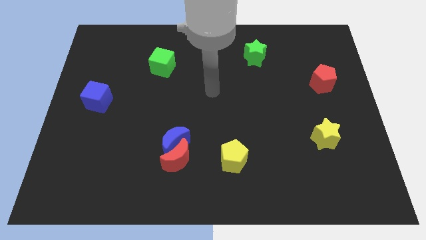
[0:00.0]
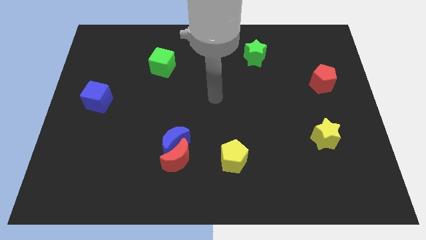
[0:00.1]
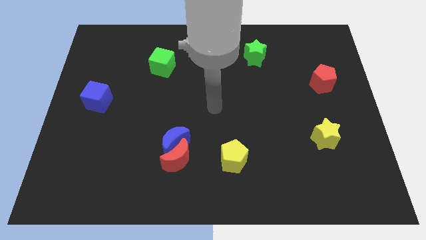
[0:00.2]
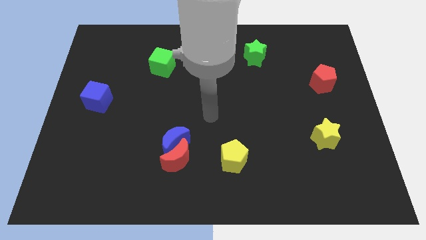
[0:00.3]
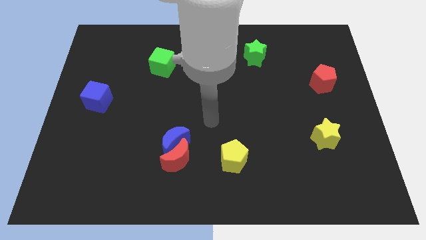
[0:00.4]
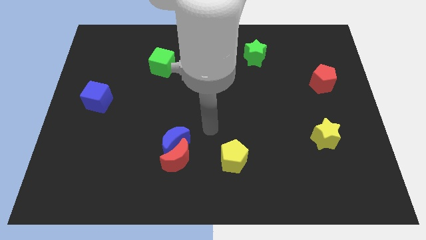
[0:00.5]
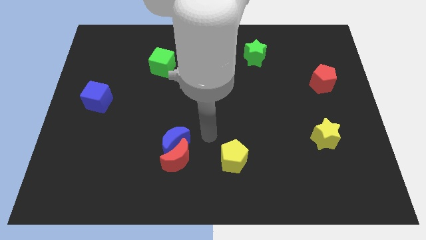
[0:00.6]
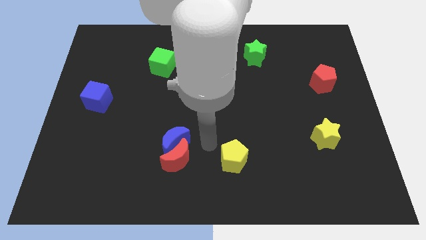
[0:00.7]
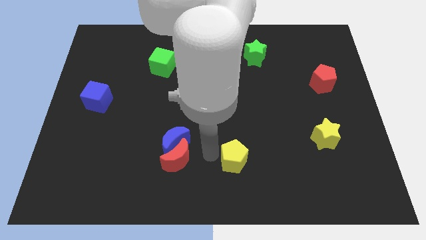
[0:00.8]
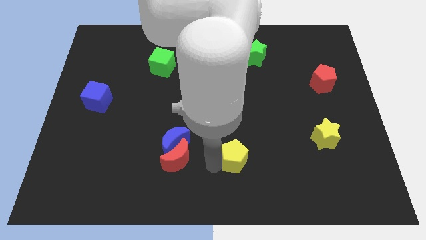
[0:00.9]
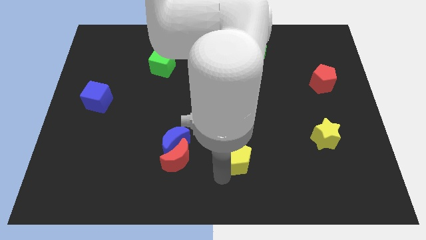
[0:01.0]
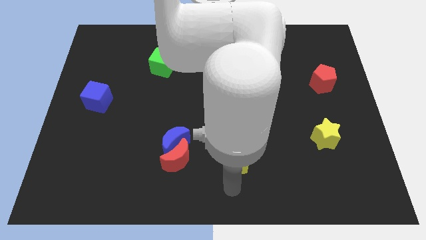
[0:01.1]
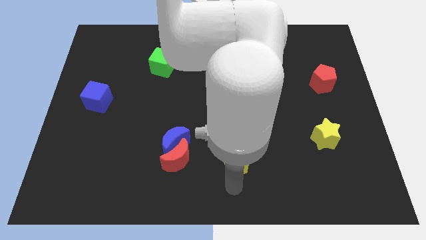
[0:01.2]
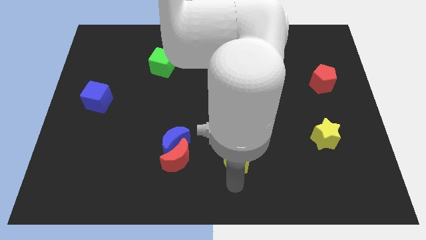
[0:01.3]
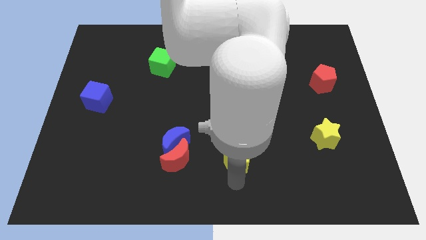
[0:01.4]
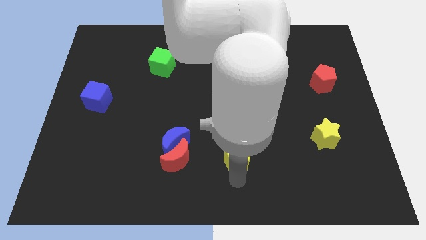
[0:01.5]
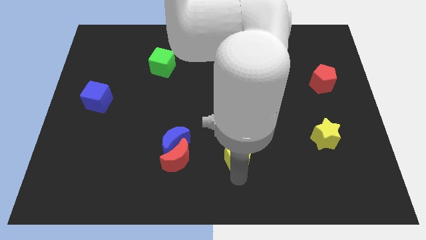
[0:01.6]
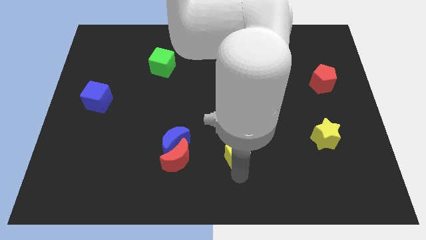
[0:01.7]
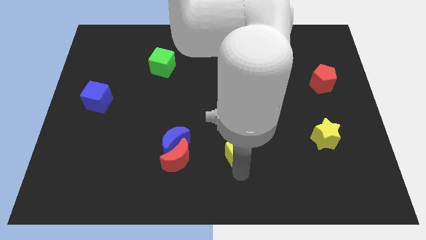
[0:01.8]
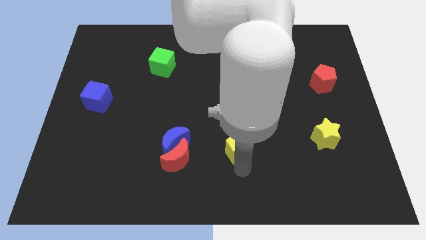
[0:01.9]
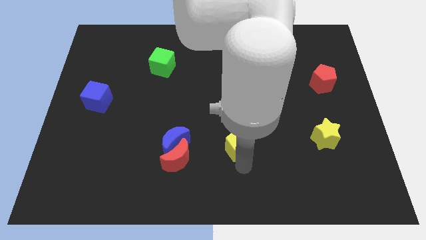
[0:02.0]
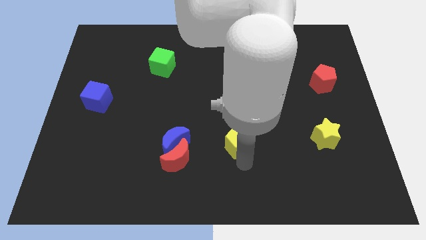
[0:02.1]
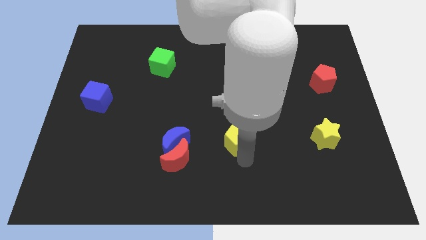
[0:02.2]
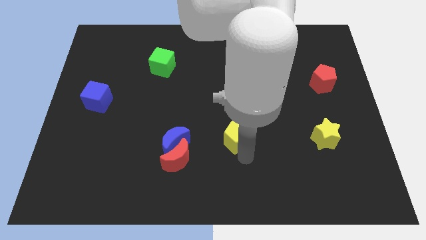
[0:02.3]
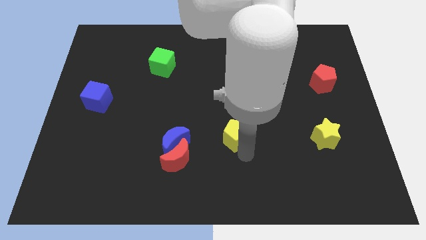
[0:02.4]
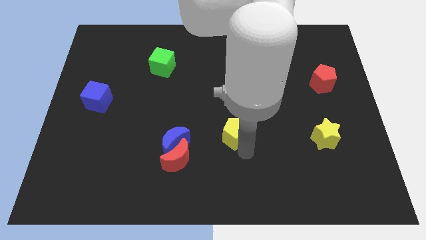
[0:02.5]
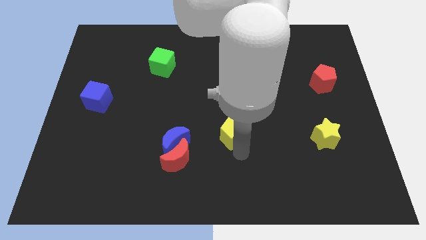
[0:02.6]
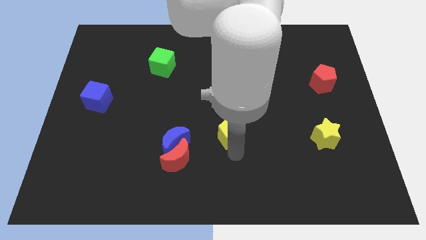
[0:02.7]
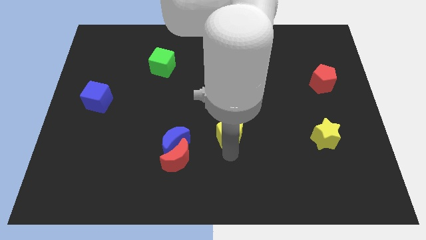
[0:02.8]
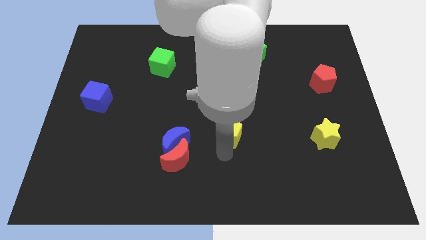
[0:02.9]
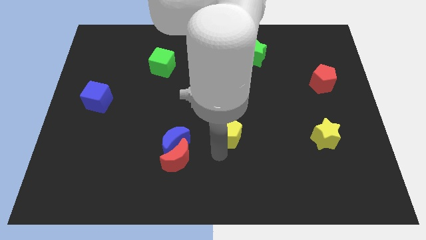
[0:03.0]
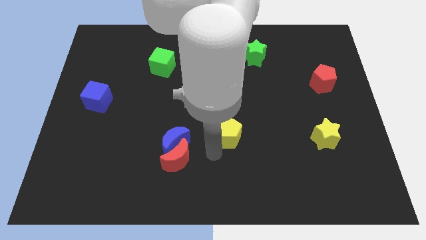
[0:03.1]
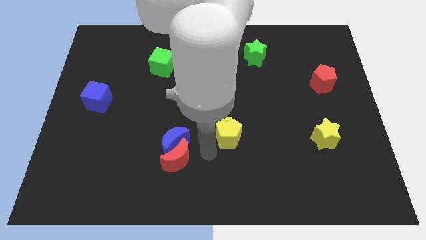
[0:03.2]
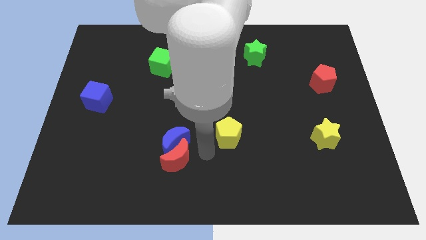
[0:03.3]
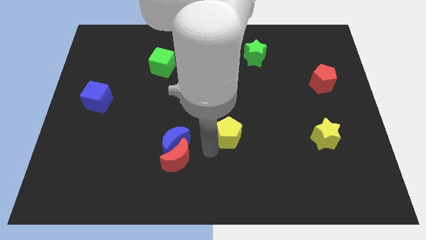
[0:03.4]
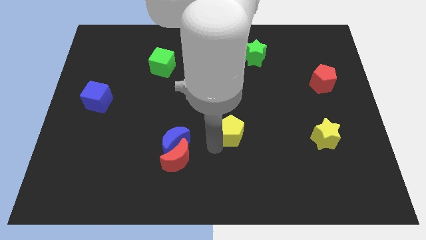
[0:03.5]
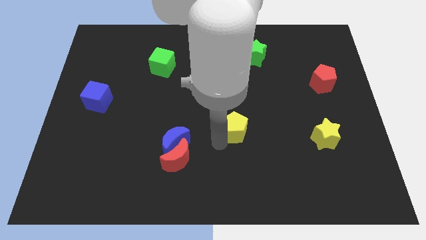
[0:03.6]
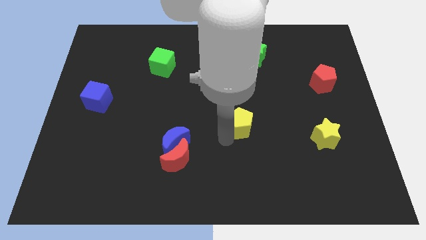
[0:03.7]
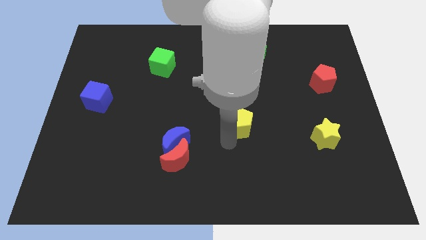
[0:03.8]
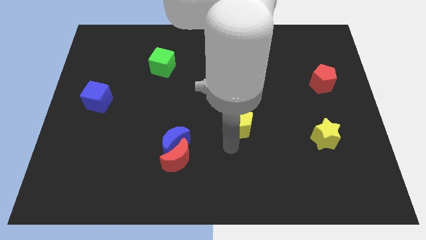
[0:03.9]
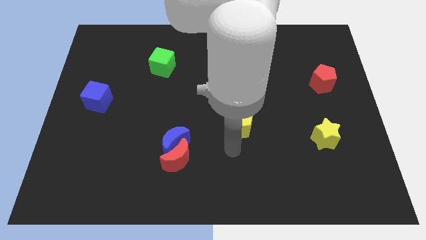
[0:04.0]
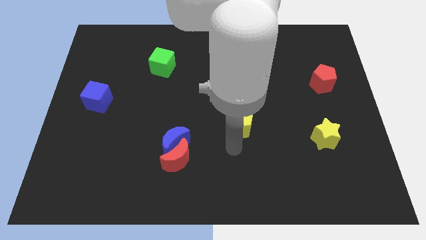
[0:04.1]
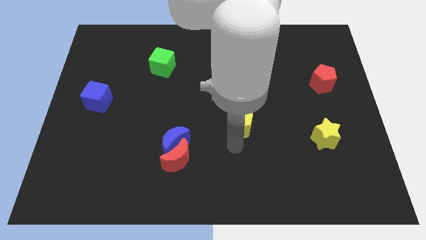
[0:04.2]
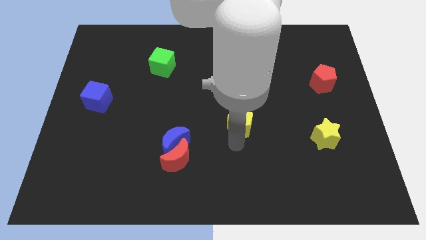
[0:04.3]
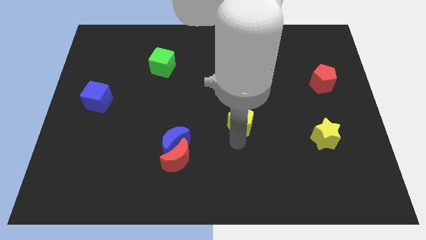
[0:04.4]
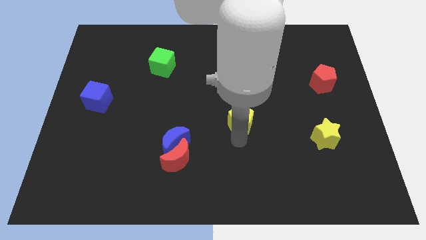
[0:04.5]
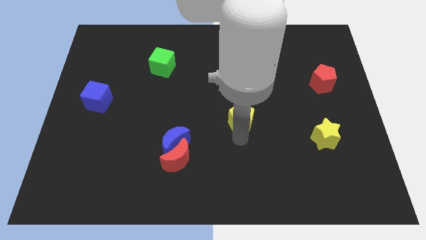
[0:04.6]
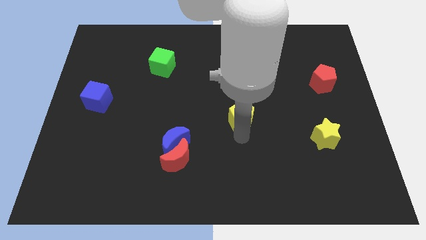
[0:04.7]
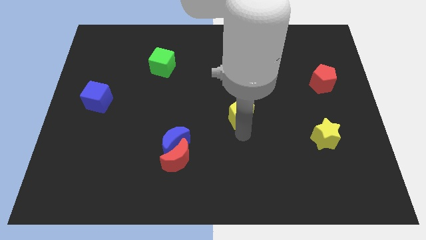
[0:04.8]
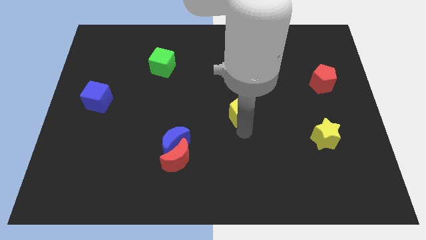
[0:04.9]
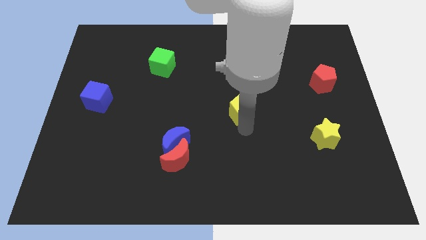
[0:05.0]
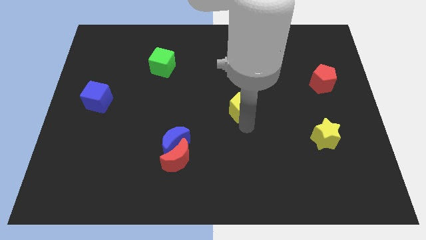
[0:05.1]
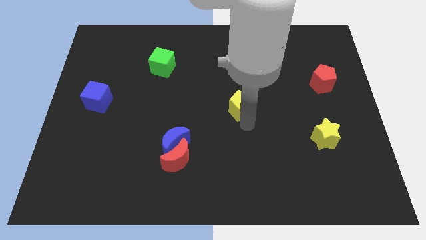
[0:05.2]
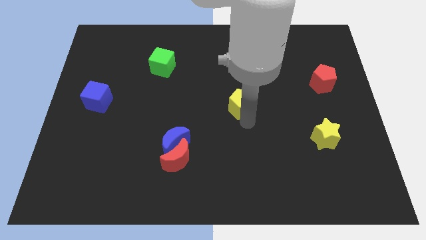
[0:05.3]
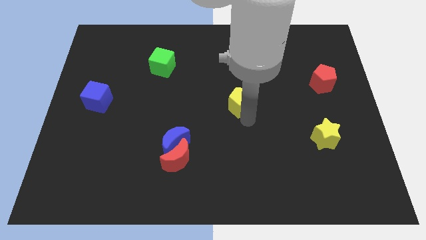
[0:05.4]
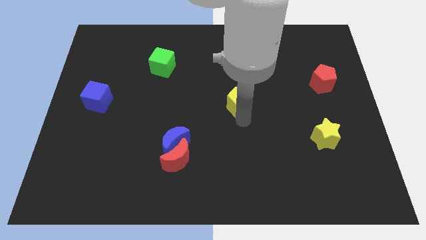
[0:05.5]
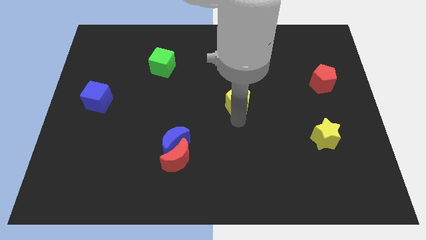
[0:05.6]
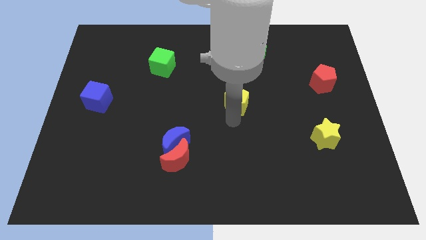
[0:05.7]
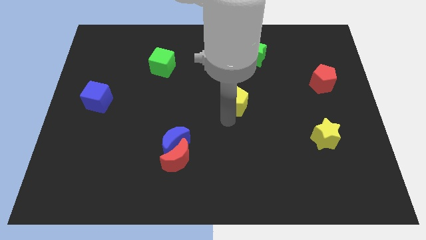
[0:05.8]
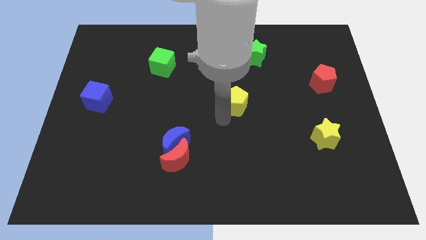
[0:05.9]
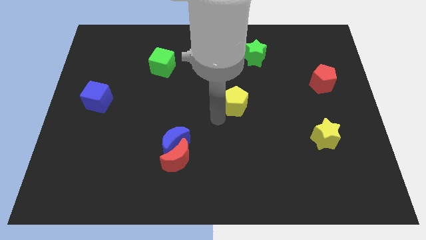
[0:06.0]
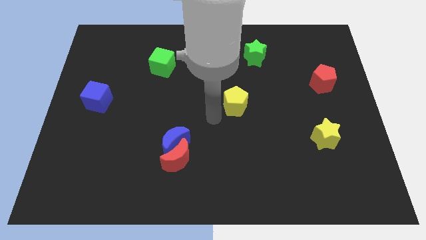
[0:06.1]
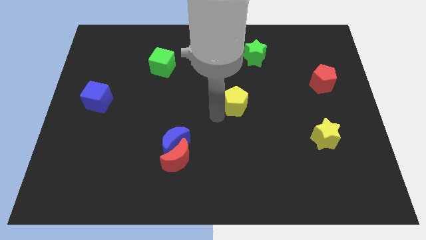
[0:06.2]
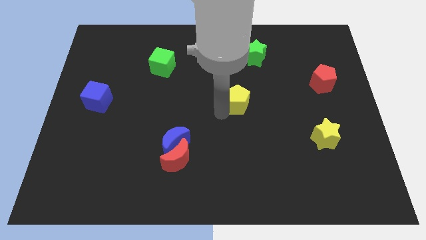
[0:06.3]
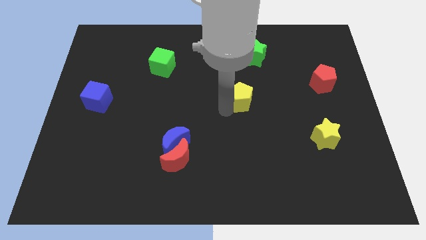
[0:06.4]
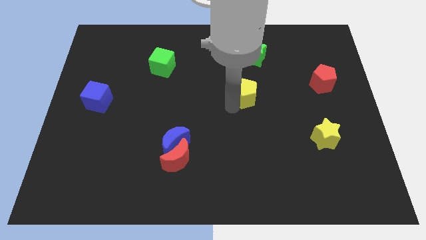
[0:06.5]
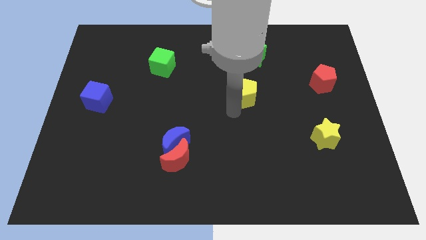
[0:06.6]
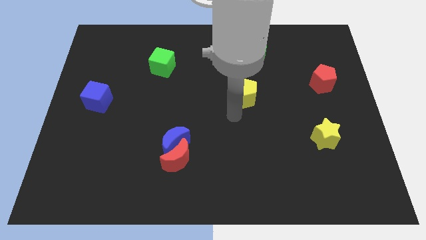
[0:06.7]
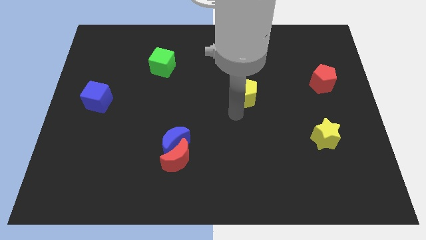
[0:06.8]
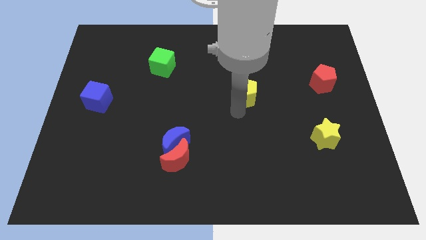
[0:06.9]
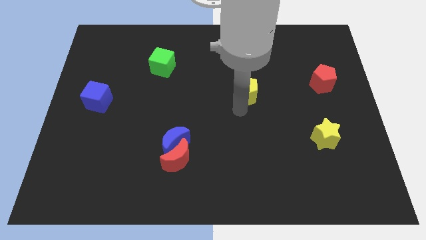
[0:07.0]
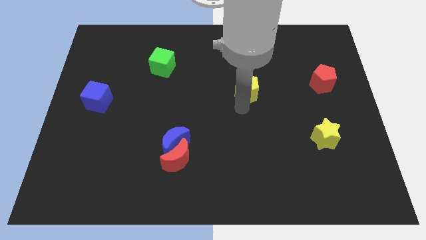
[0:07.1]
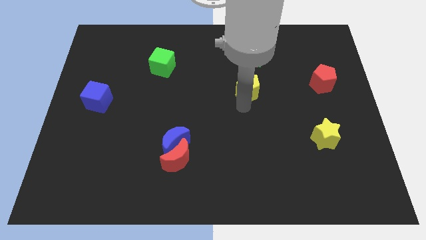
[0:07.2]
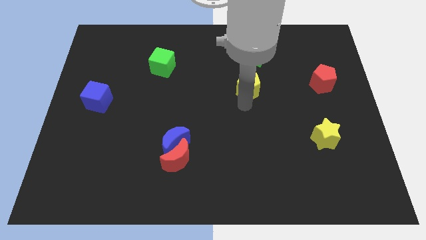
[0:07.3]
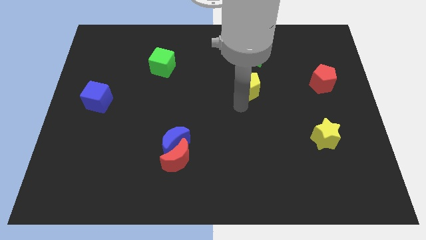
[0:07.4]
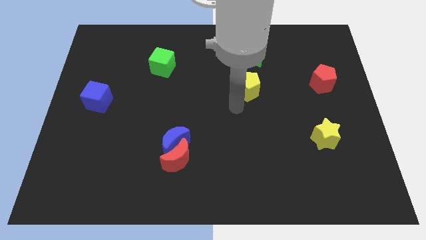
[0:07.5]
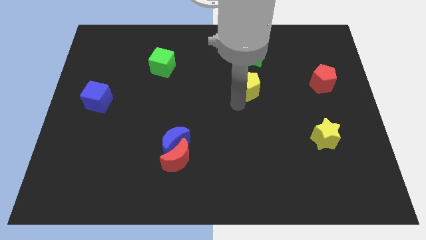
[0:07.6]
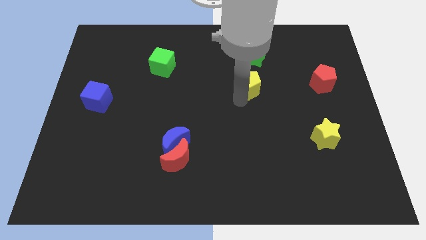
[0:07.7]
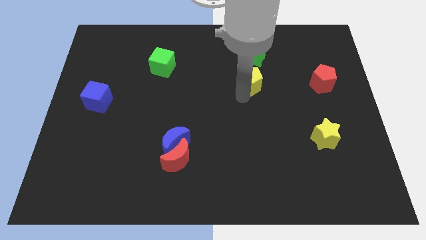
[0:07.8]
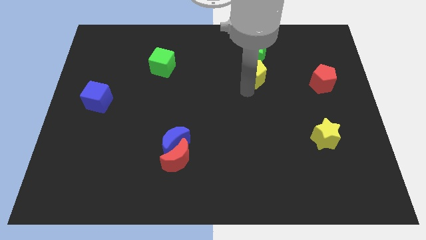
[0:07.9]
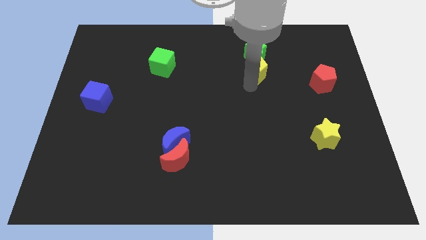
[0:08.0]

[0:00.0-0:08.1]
slide the yellow pentagon towards the green star
